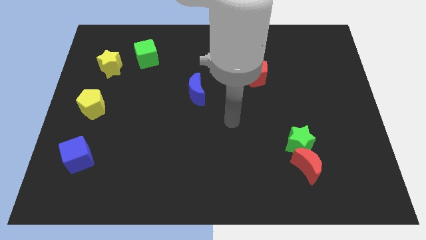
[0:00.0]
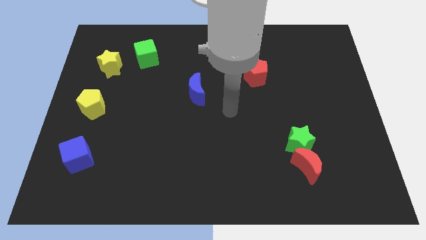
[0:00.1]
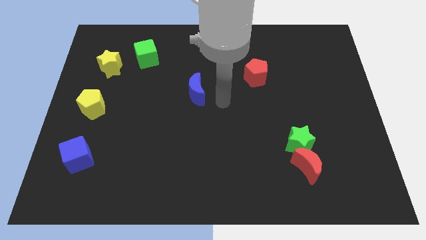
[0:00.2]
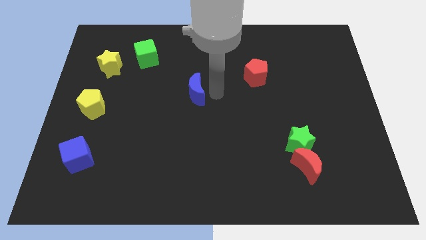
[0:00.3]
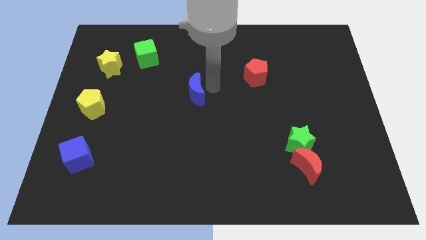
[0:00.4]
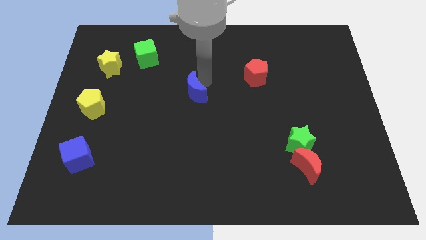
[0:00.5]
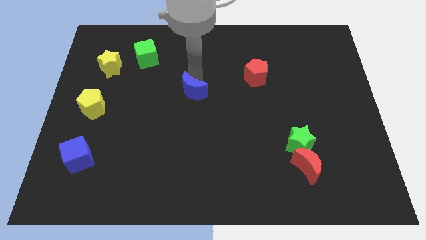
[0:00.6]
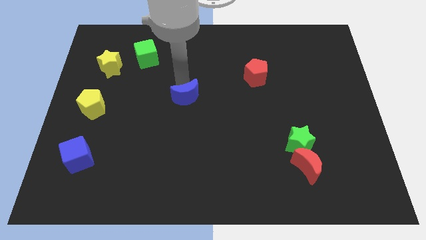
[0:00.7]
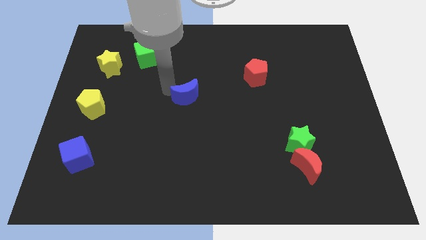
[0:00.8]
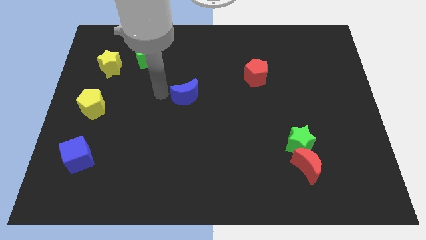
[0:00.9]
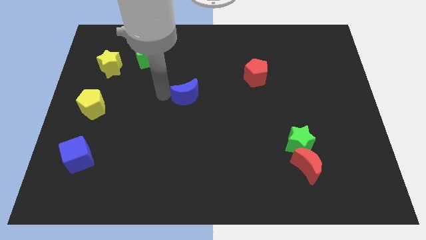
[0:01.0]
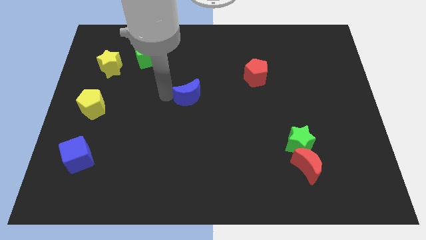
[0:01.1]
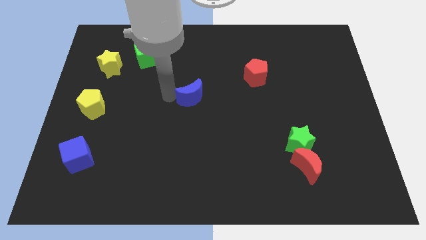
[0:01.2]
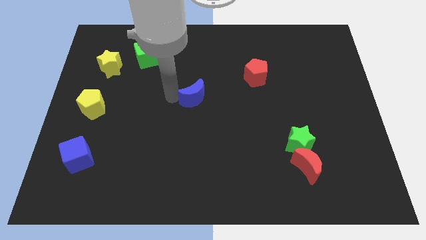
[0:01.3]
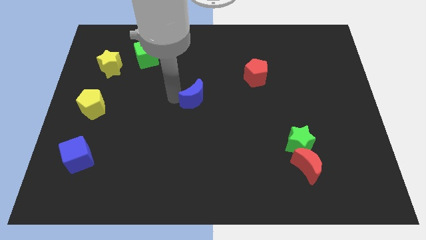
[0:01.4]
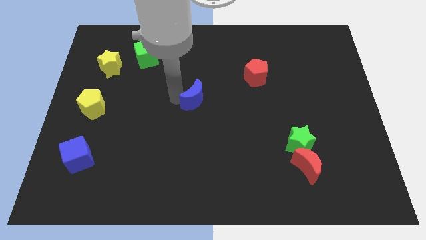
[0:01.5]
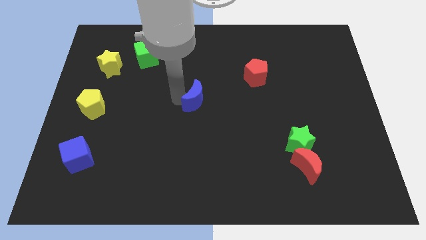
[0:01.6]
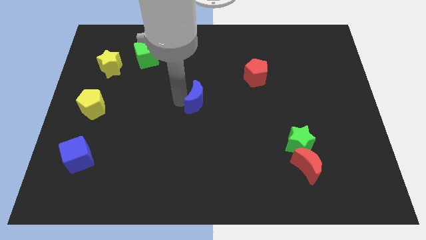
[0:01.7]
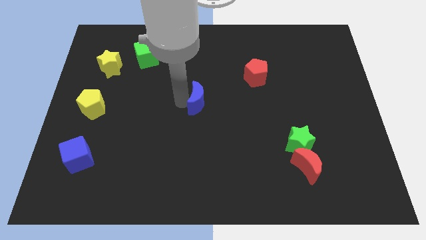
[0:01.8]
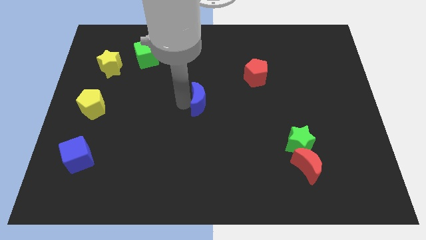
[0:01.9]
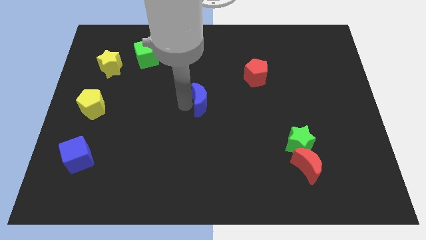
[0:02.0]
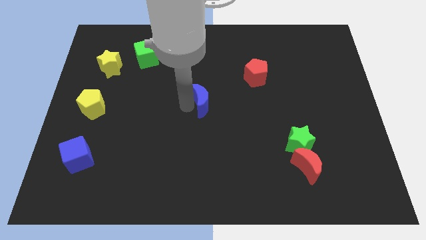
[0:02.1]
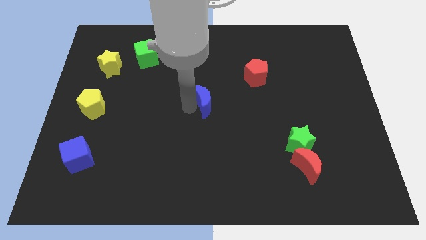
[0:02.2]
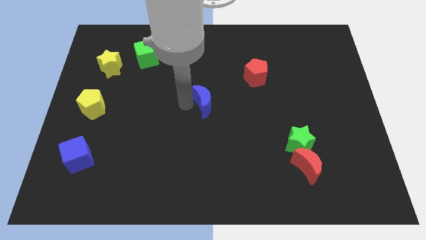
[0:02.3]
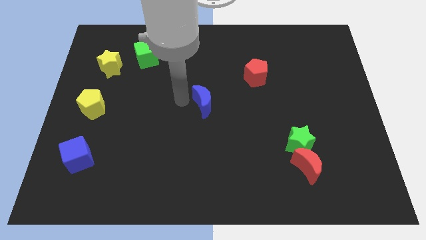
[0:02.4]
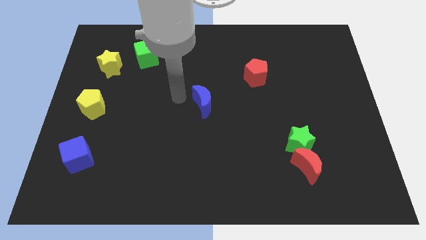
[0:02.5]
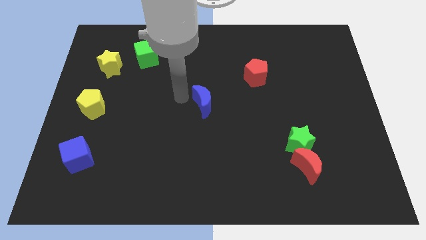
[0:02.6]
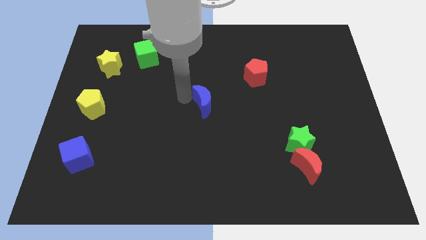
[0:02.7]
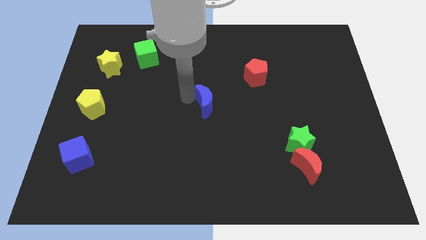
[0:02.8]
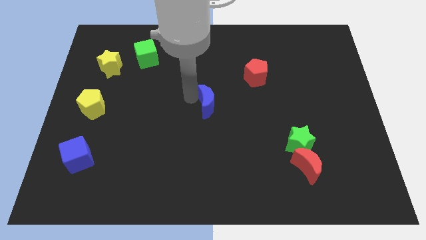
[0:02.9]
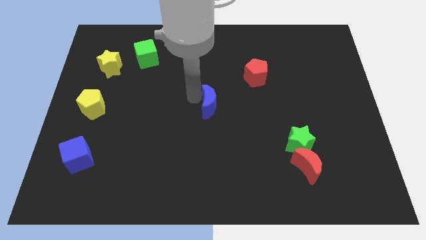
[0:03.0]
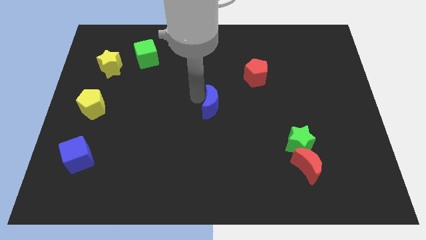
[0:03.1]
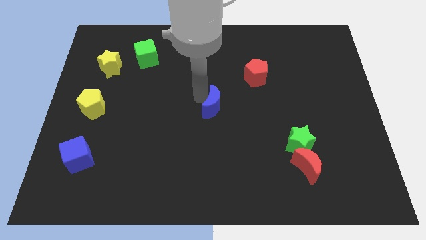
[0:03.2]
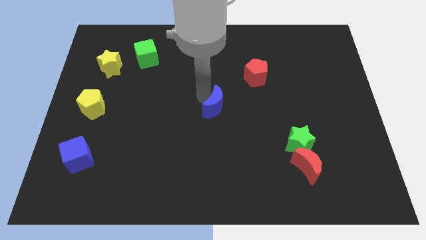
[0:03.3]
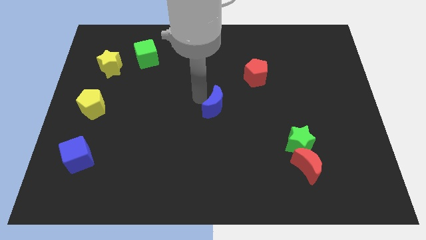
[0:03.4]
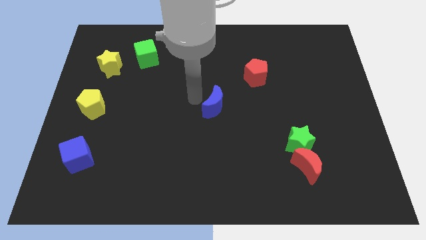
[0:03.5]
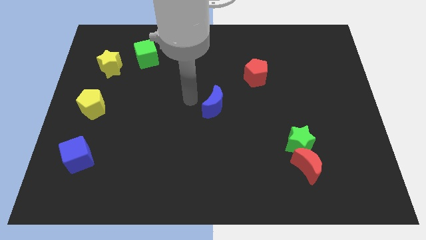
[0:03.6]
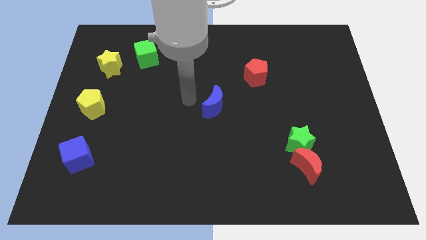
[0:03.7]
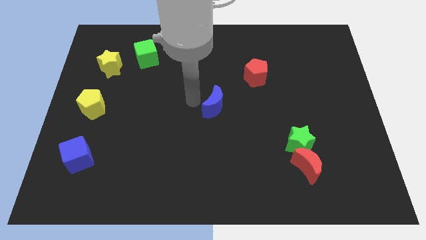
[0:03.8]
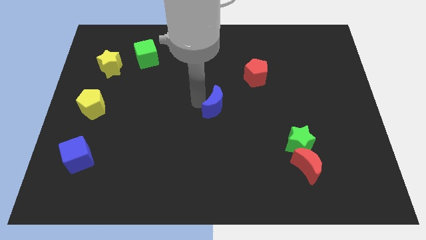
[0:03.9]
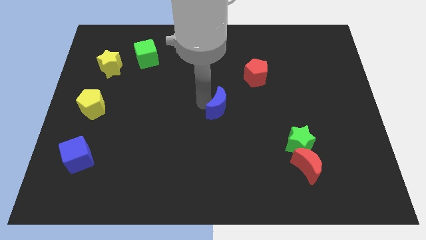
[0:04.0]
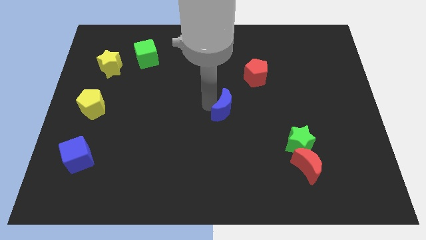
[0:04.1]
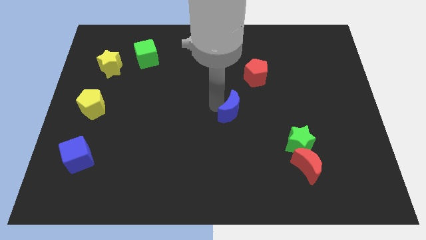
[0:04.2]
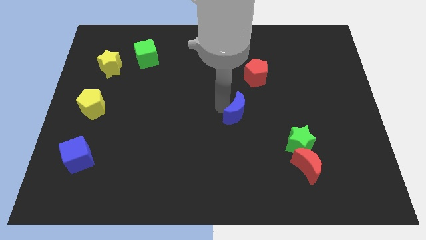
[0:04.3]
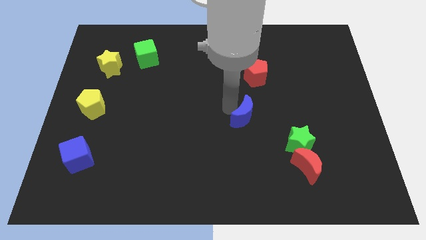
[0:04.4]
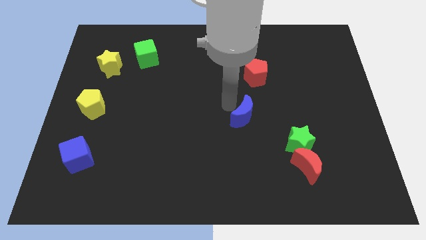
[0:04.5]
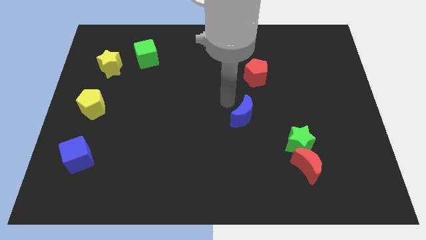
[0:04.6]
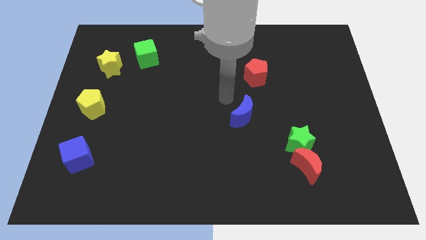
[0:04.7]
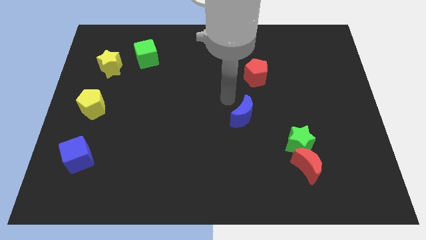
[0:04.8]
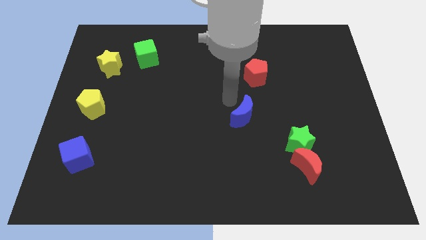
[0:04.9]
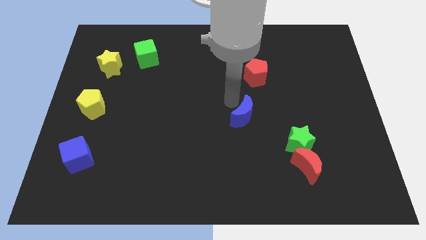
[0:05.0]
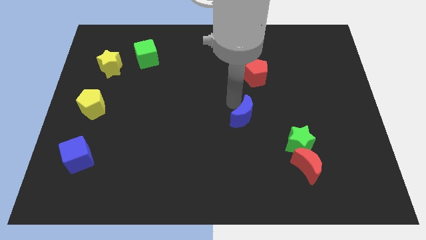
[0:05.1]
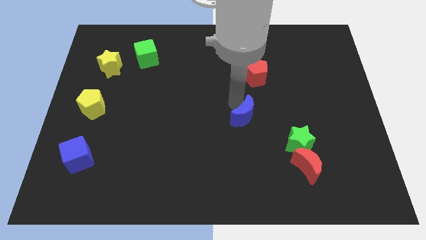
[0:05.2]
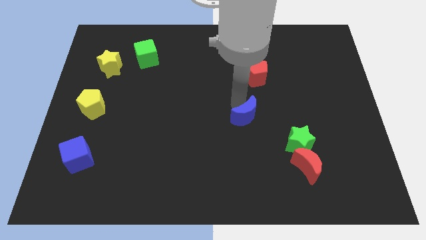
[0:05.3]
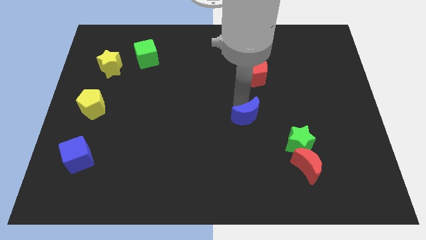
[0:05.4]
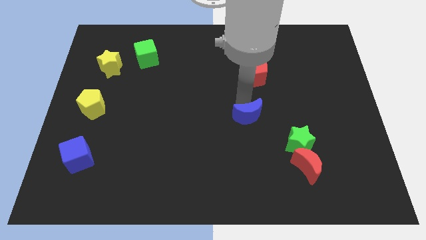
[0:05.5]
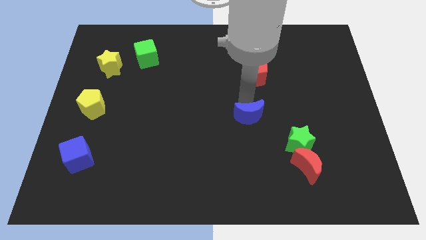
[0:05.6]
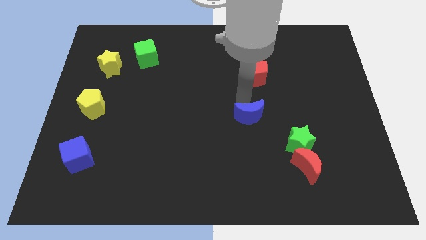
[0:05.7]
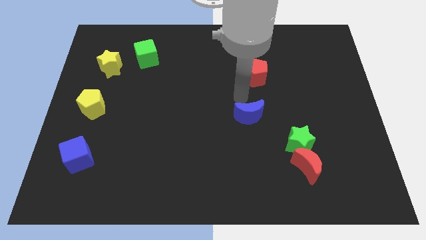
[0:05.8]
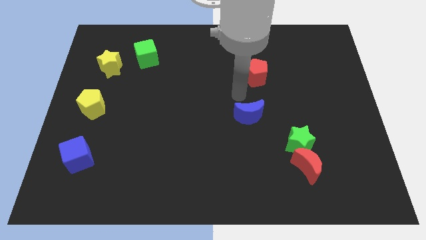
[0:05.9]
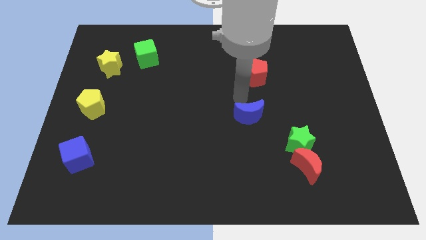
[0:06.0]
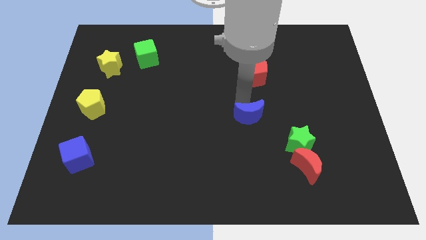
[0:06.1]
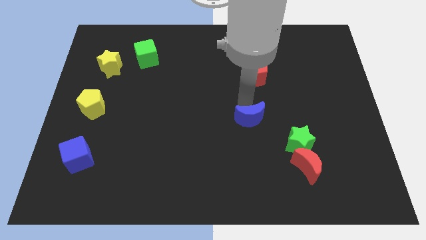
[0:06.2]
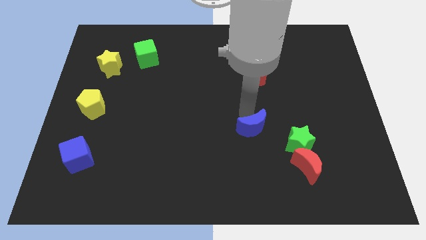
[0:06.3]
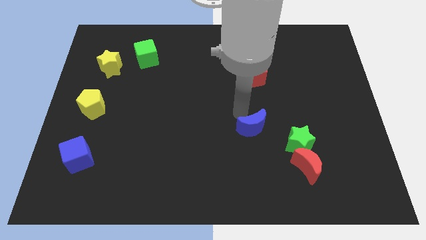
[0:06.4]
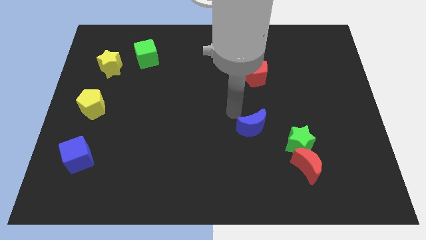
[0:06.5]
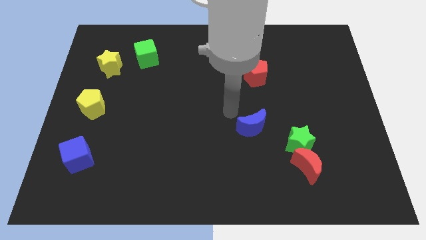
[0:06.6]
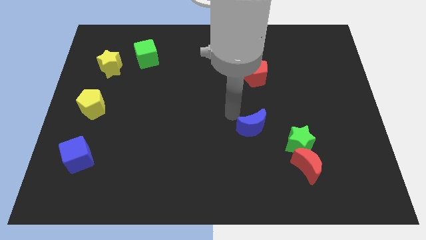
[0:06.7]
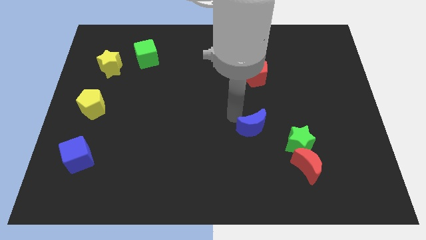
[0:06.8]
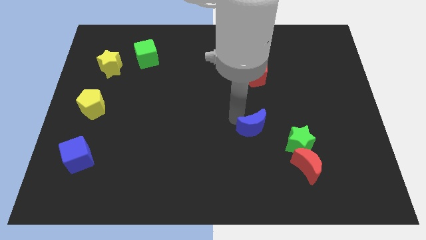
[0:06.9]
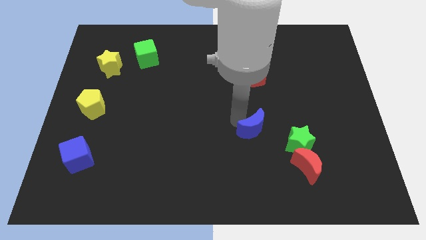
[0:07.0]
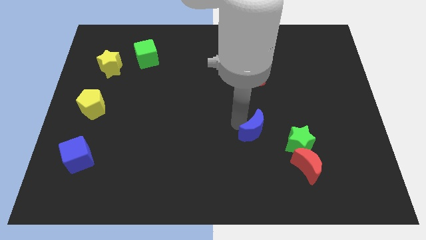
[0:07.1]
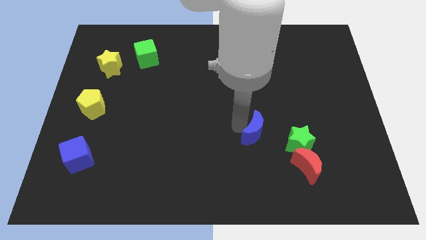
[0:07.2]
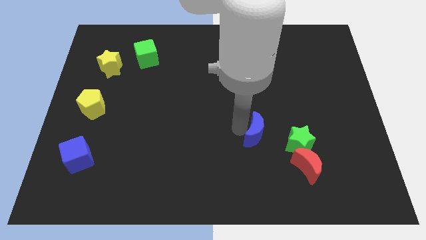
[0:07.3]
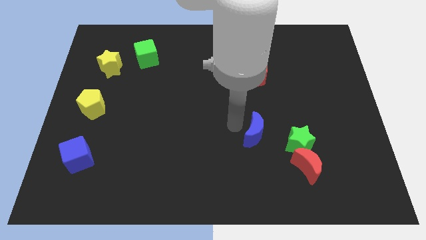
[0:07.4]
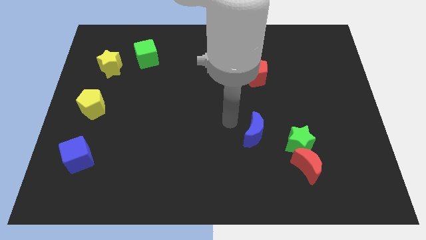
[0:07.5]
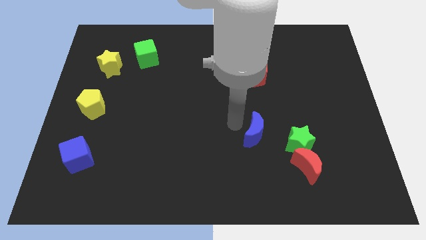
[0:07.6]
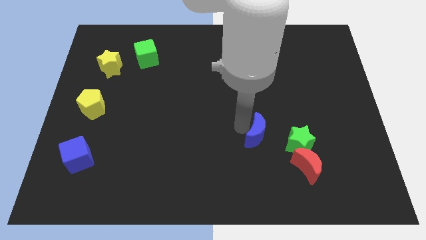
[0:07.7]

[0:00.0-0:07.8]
push the blue moon to the top left side of the red moon
